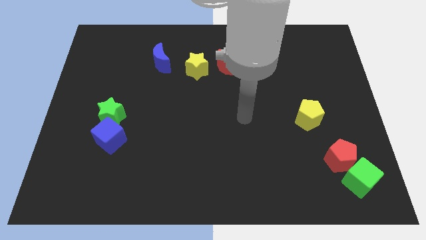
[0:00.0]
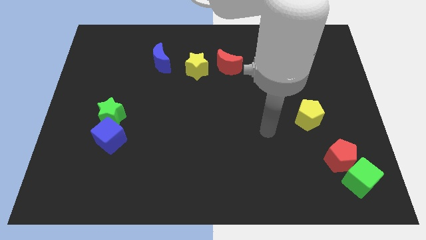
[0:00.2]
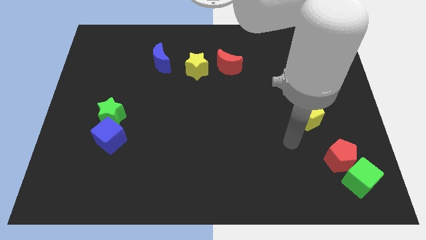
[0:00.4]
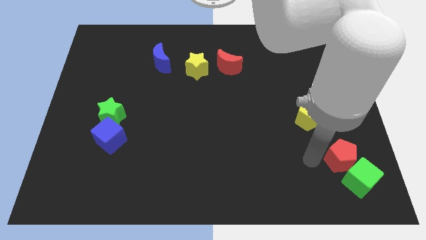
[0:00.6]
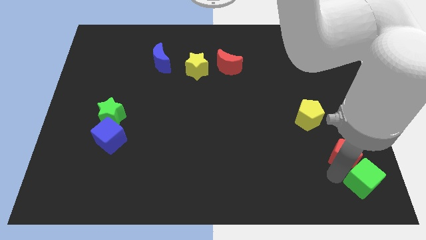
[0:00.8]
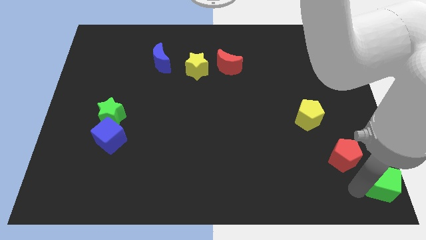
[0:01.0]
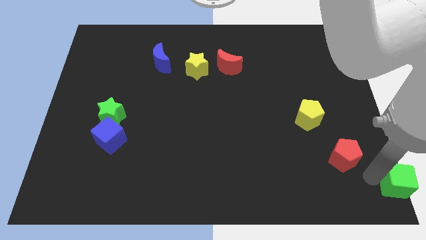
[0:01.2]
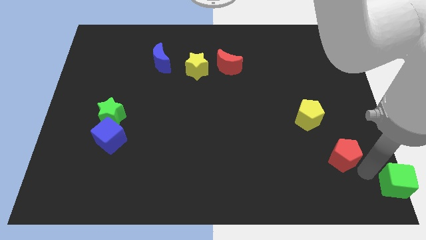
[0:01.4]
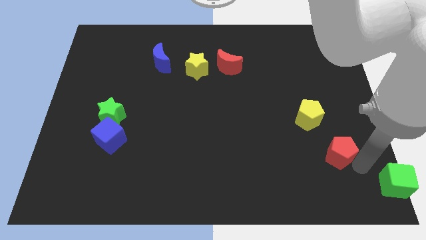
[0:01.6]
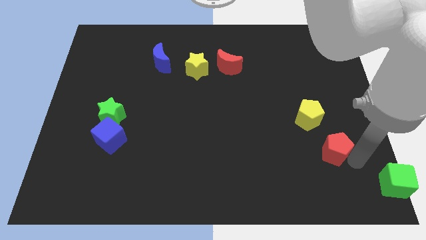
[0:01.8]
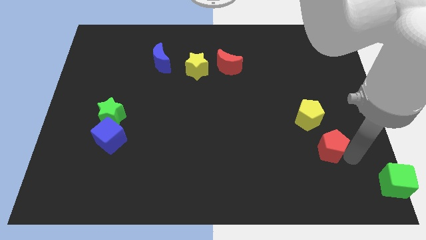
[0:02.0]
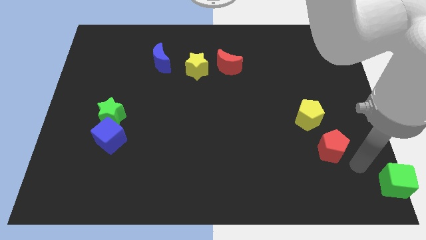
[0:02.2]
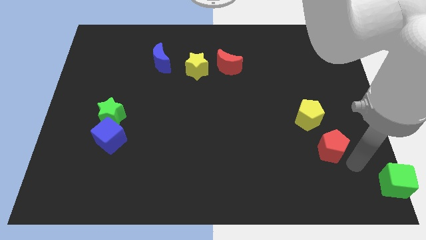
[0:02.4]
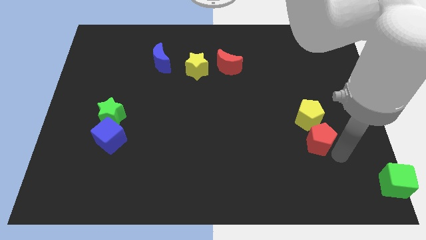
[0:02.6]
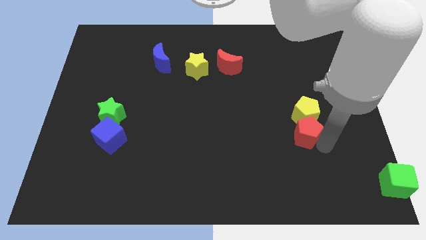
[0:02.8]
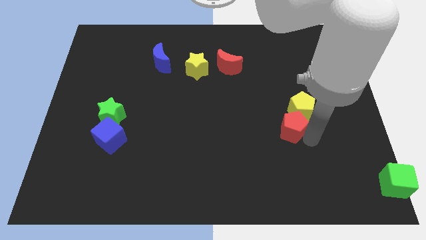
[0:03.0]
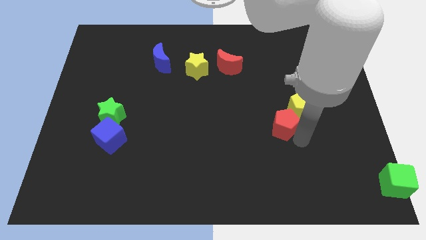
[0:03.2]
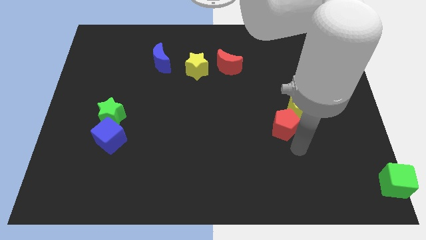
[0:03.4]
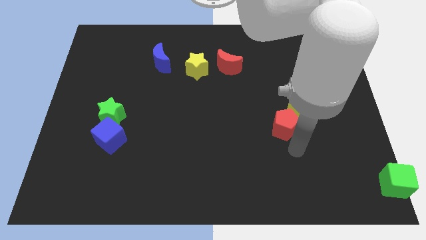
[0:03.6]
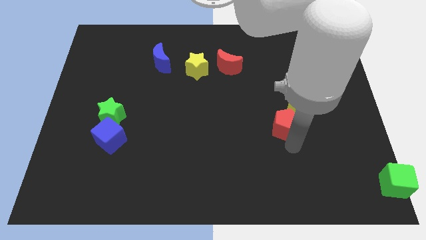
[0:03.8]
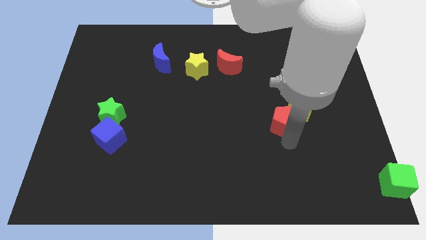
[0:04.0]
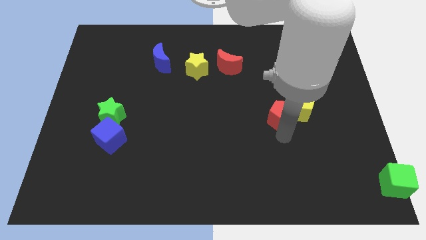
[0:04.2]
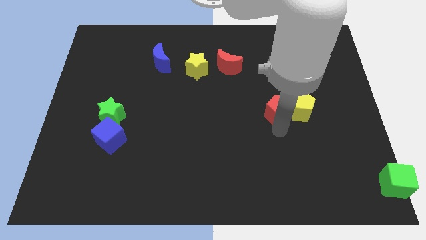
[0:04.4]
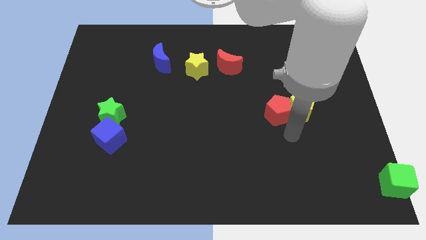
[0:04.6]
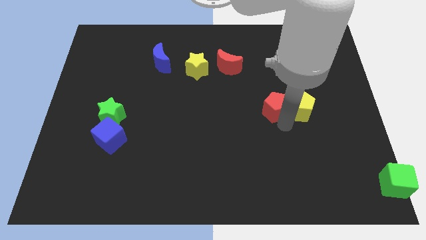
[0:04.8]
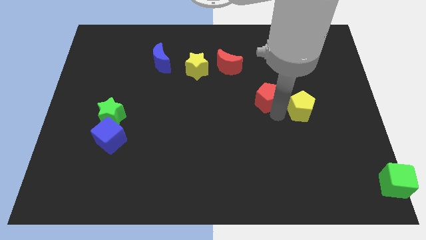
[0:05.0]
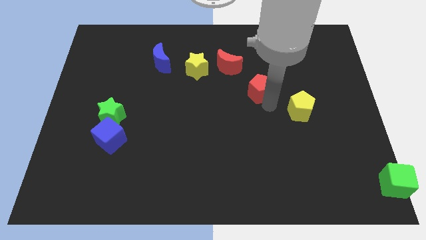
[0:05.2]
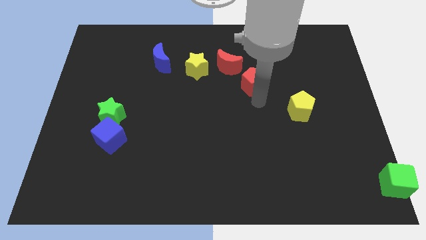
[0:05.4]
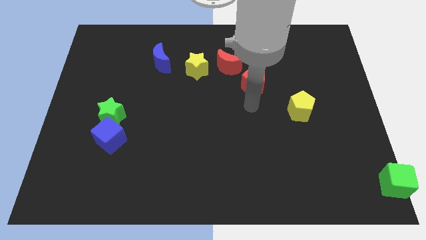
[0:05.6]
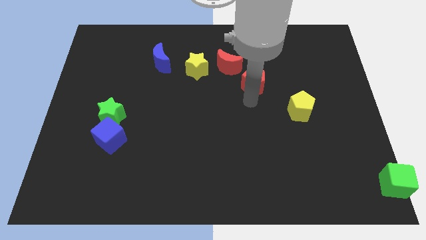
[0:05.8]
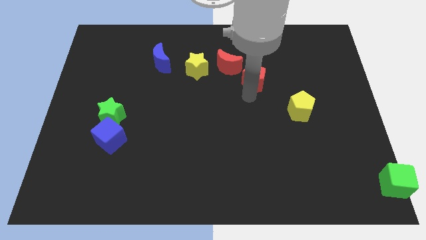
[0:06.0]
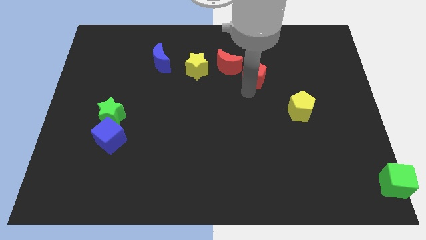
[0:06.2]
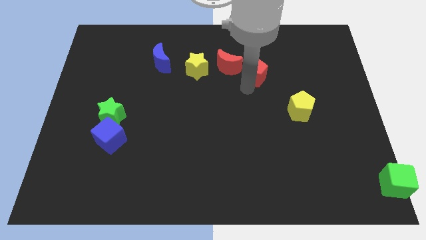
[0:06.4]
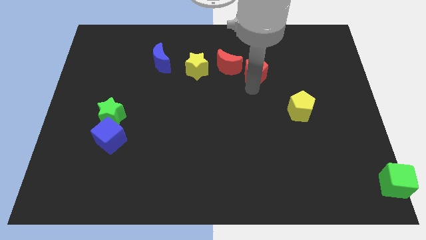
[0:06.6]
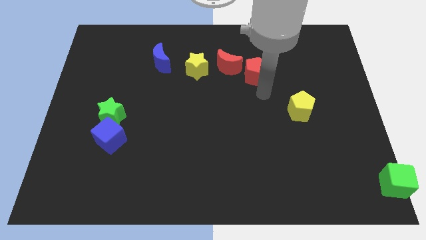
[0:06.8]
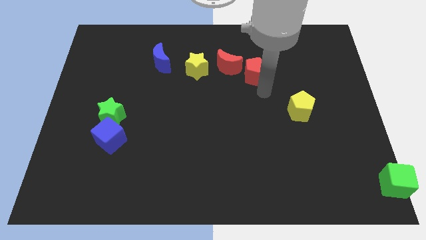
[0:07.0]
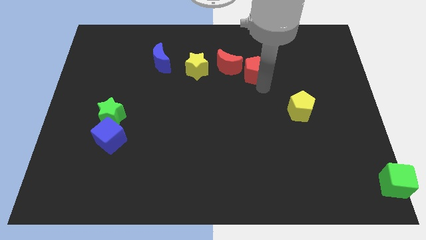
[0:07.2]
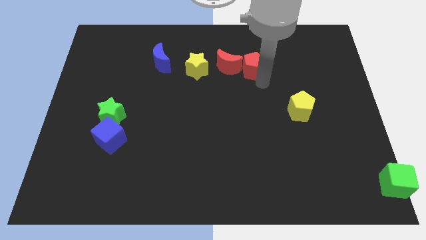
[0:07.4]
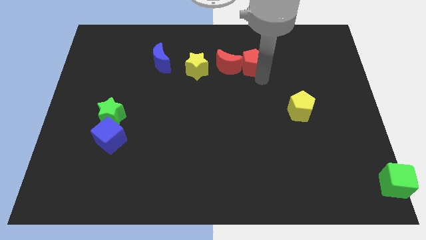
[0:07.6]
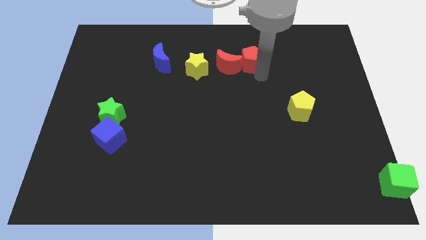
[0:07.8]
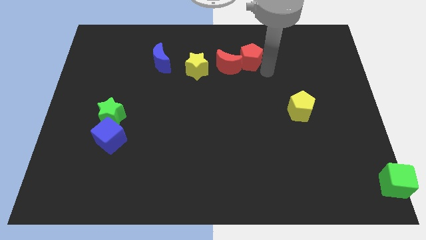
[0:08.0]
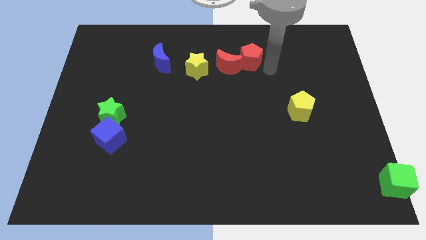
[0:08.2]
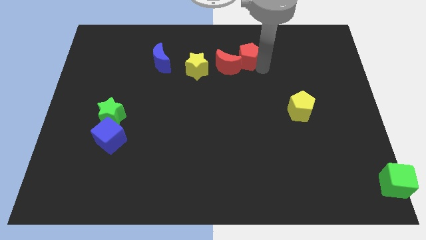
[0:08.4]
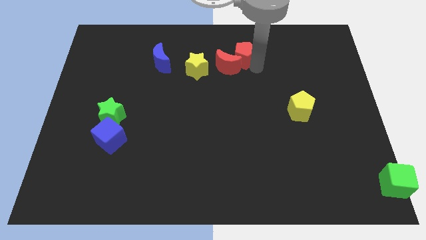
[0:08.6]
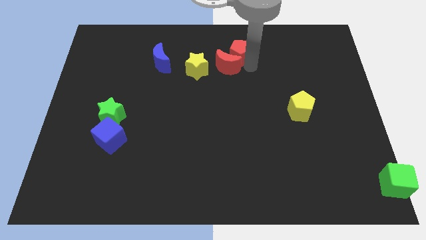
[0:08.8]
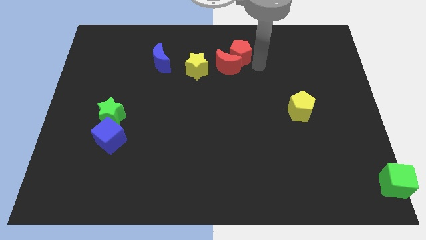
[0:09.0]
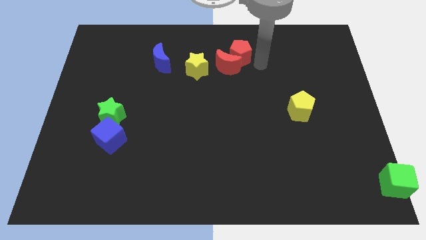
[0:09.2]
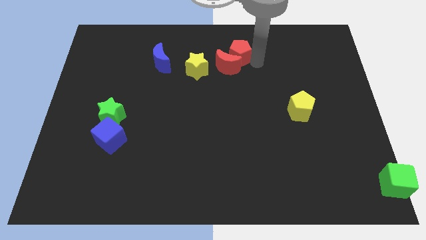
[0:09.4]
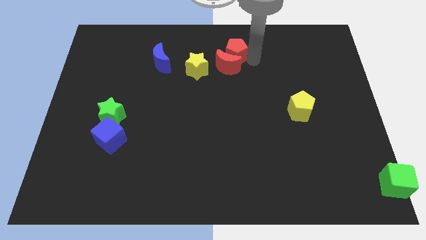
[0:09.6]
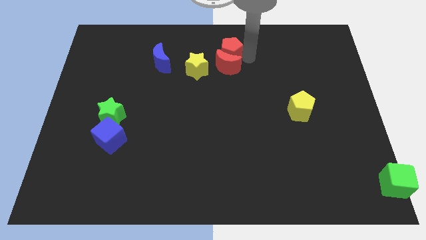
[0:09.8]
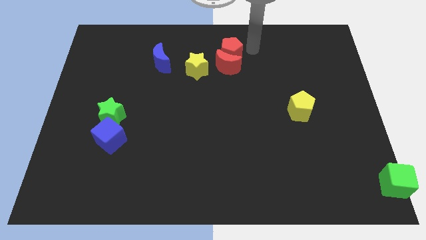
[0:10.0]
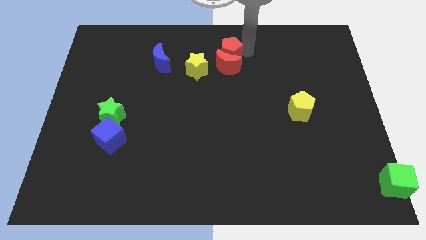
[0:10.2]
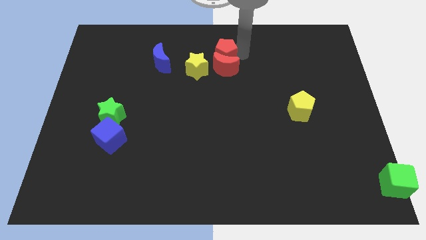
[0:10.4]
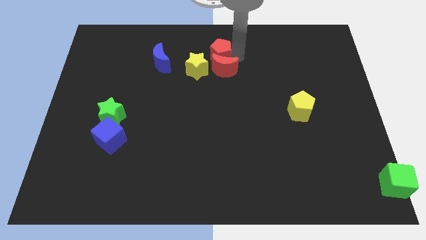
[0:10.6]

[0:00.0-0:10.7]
push the red pentagon right of the blue moon

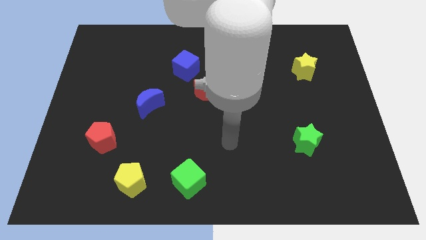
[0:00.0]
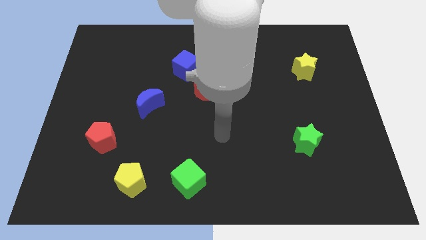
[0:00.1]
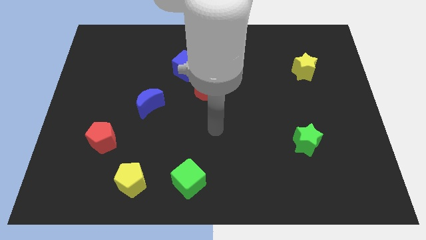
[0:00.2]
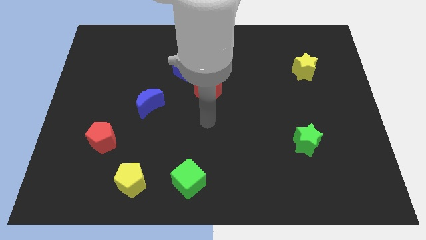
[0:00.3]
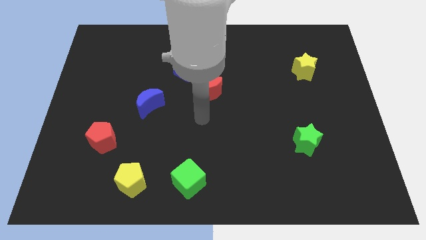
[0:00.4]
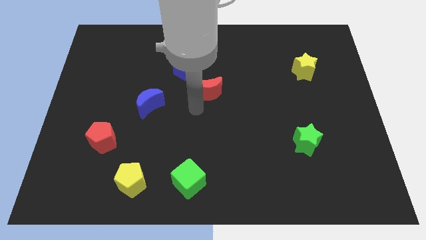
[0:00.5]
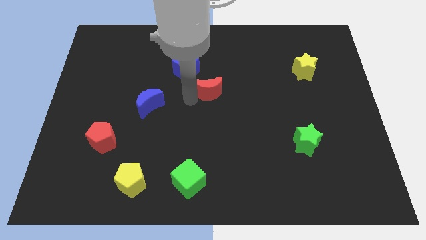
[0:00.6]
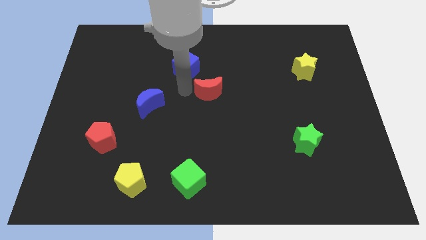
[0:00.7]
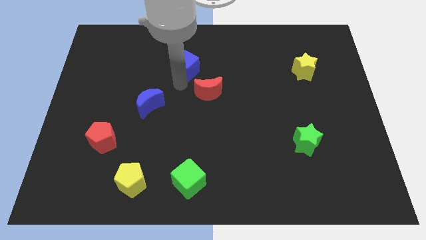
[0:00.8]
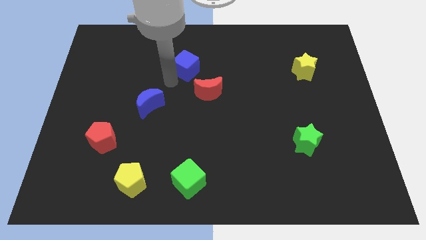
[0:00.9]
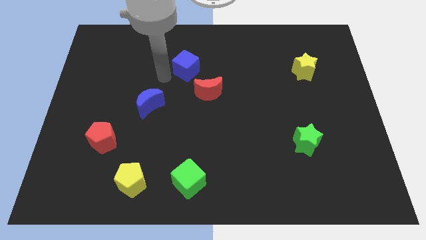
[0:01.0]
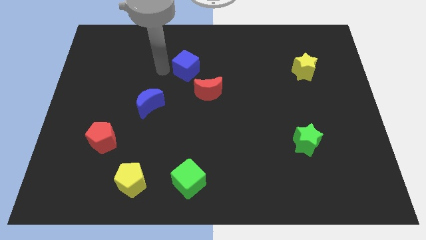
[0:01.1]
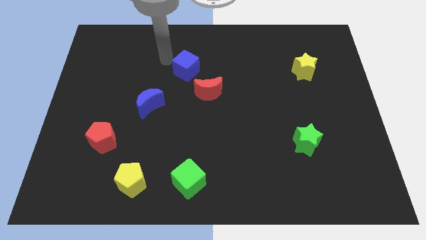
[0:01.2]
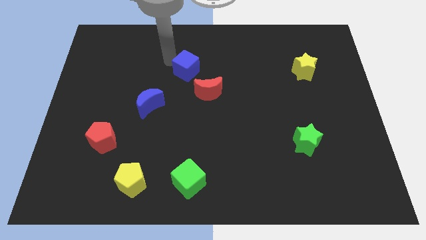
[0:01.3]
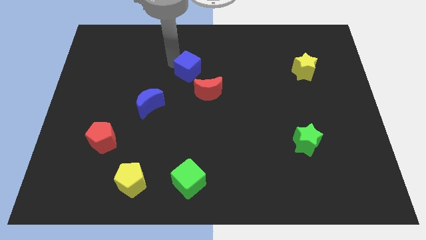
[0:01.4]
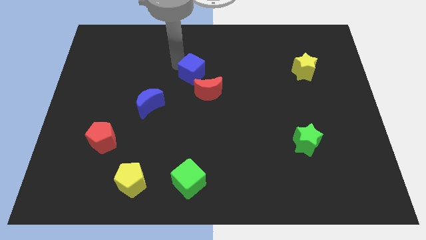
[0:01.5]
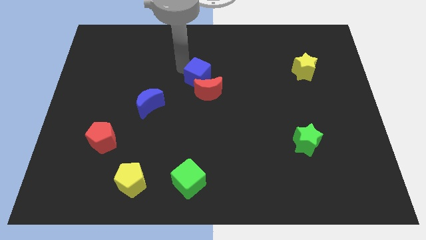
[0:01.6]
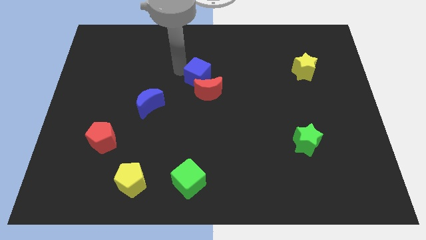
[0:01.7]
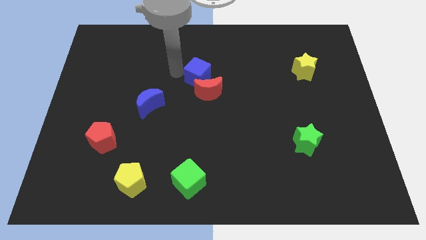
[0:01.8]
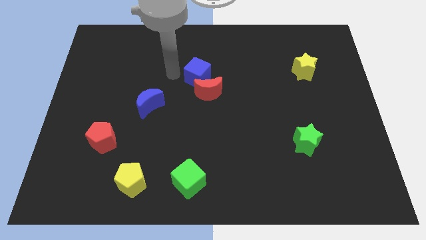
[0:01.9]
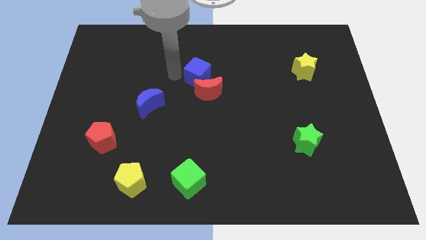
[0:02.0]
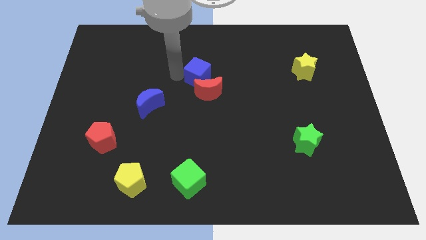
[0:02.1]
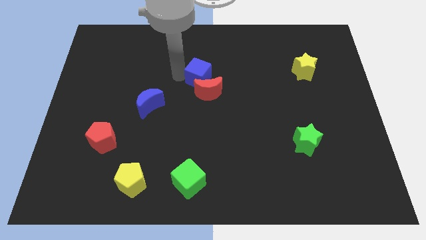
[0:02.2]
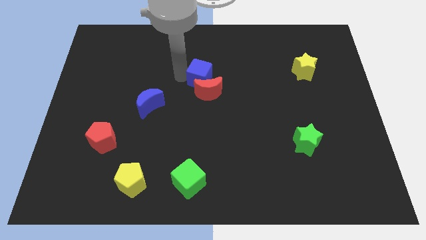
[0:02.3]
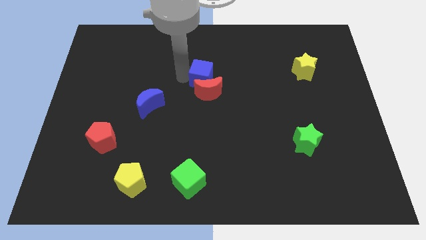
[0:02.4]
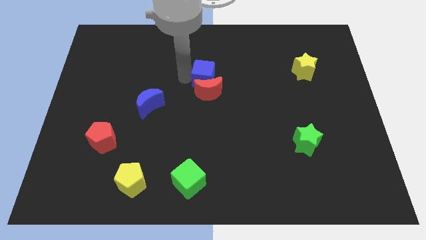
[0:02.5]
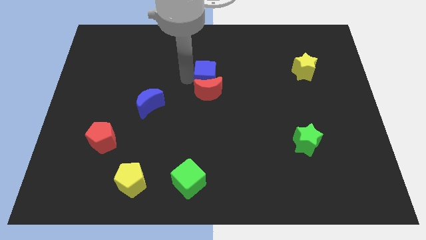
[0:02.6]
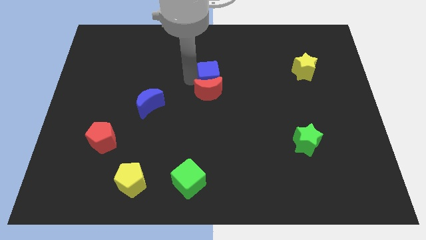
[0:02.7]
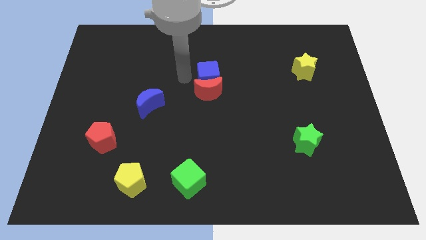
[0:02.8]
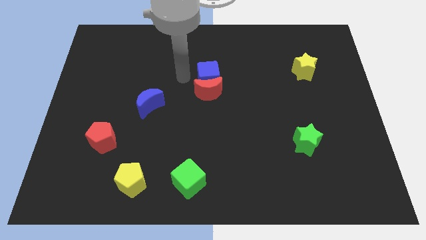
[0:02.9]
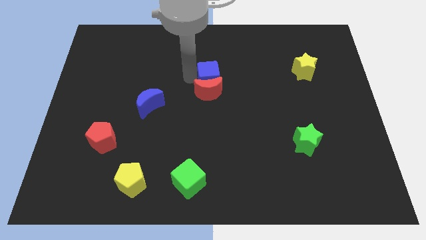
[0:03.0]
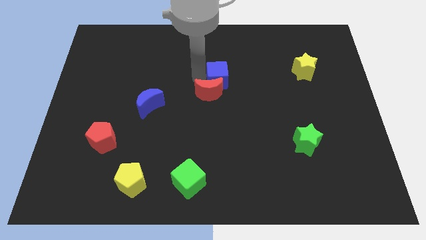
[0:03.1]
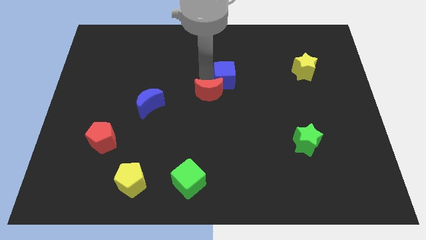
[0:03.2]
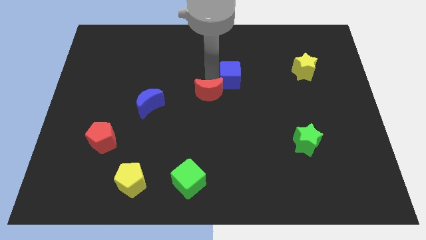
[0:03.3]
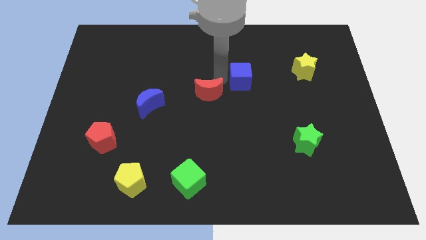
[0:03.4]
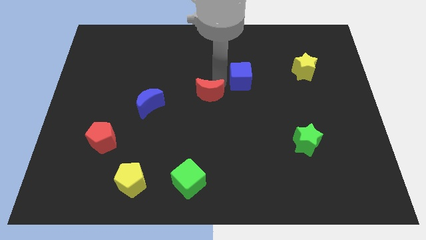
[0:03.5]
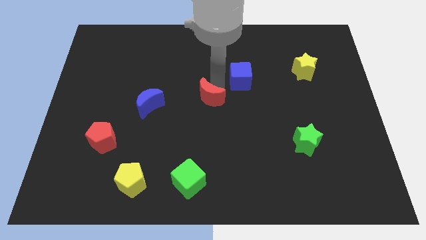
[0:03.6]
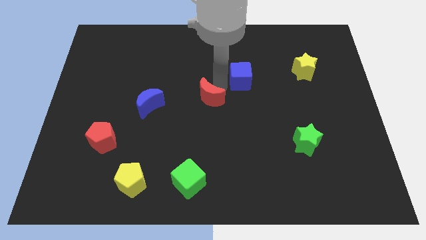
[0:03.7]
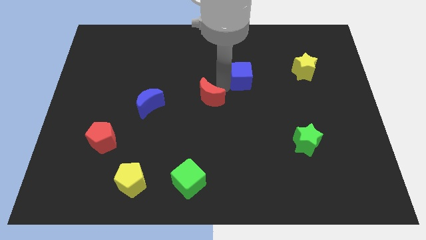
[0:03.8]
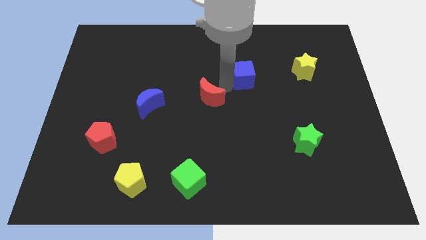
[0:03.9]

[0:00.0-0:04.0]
put the blue cube to the left of the yellow star
